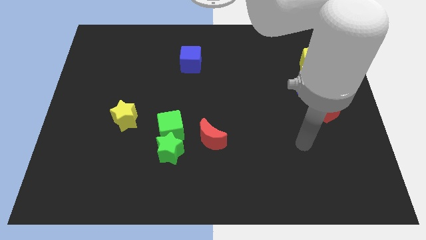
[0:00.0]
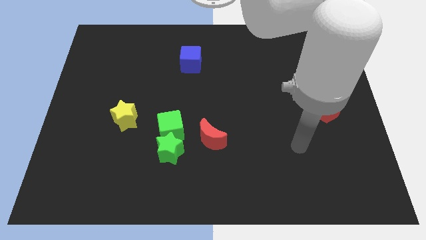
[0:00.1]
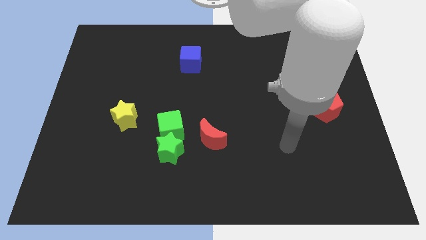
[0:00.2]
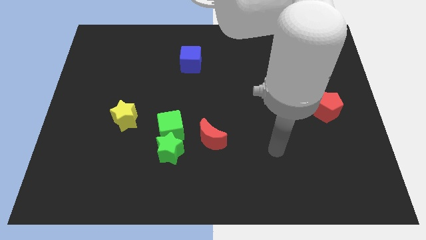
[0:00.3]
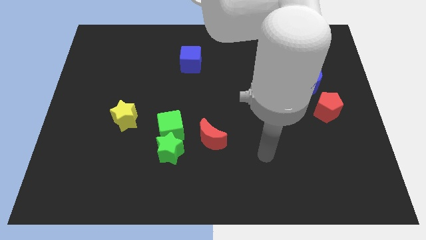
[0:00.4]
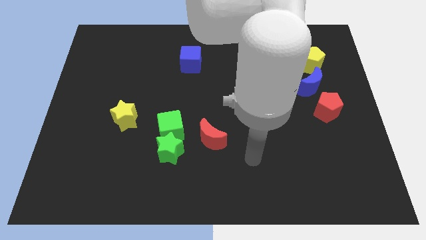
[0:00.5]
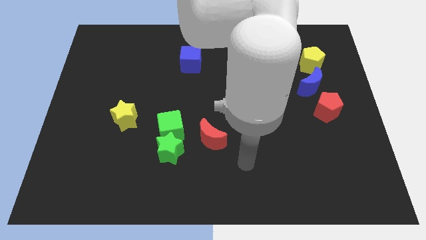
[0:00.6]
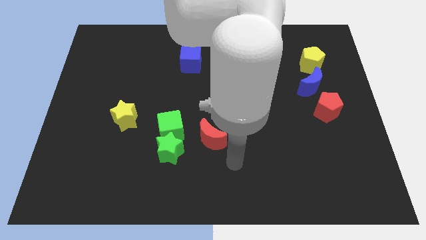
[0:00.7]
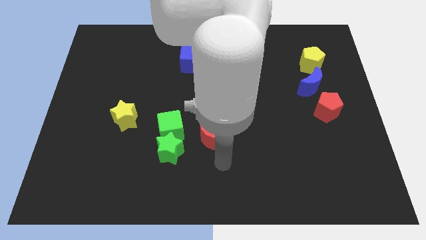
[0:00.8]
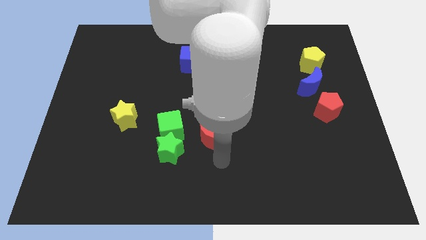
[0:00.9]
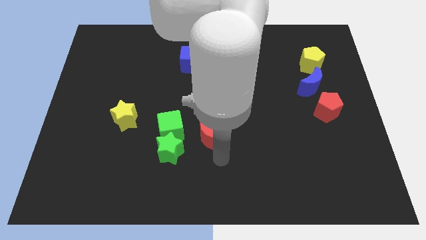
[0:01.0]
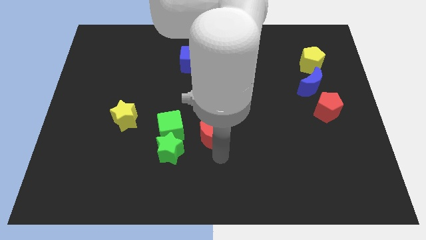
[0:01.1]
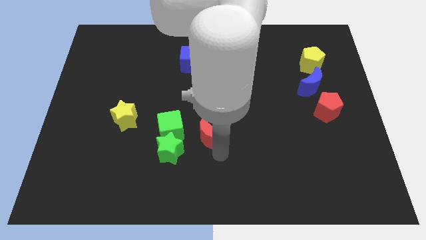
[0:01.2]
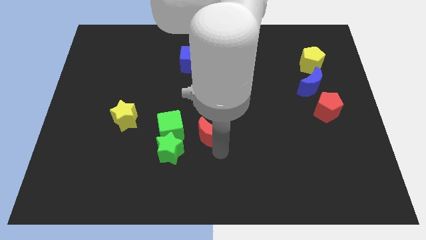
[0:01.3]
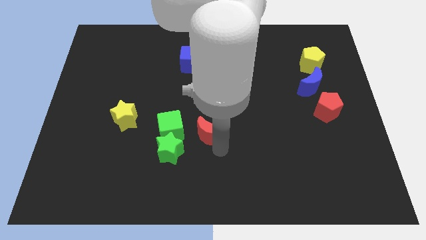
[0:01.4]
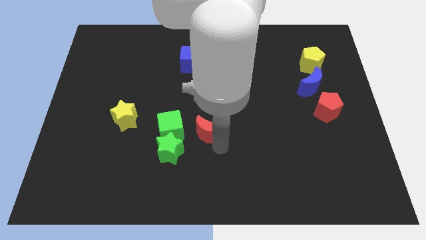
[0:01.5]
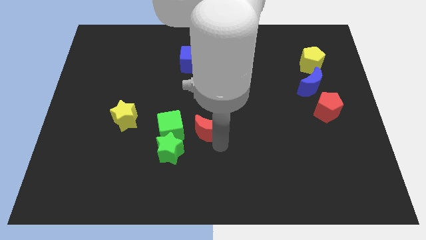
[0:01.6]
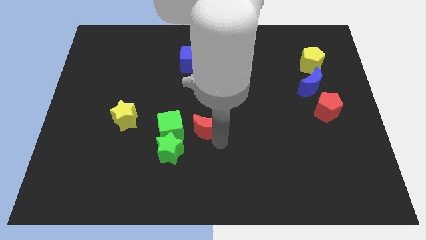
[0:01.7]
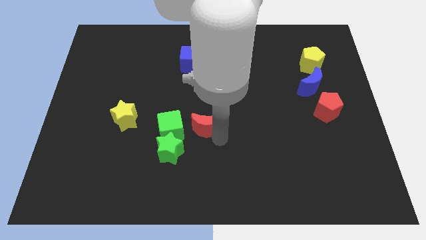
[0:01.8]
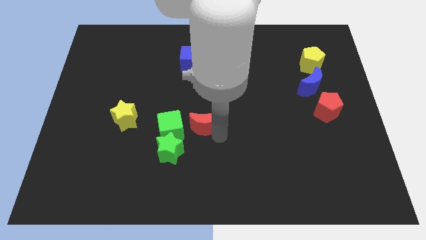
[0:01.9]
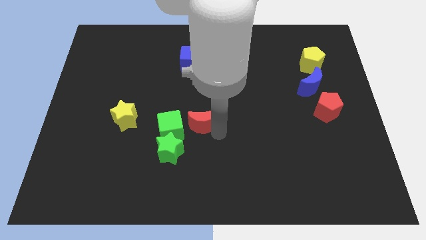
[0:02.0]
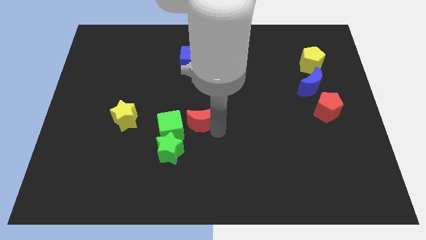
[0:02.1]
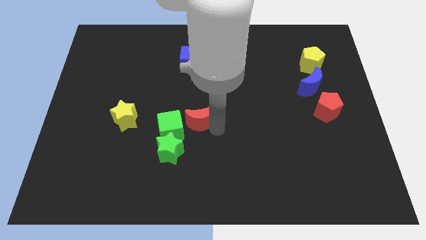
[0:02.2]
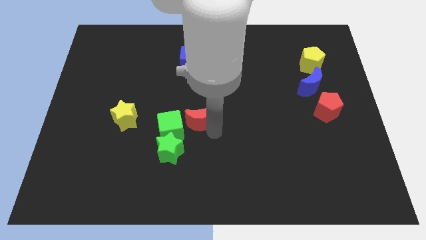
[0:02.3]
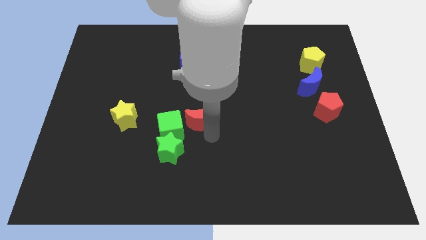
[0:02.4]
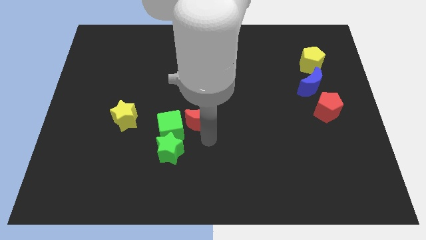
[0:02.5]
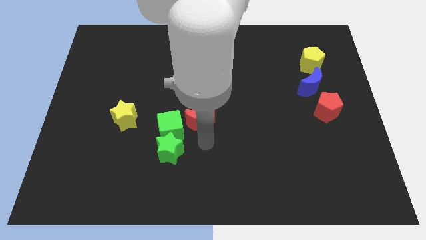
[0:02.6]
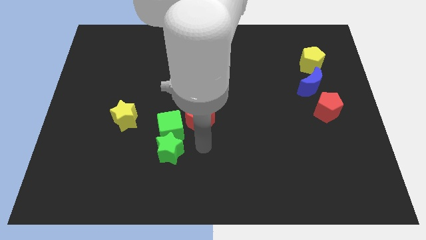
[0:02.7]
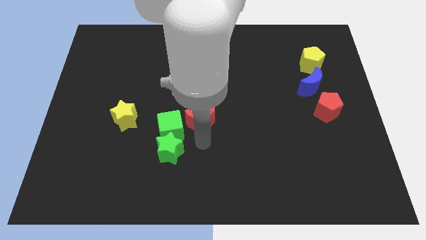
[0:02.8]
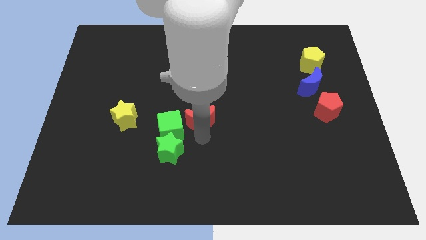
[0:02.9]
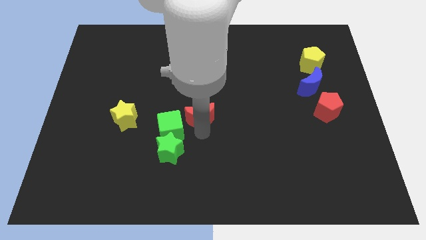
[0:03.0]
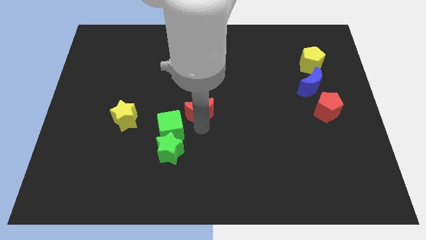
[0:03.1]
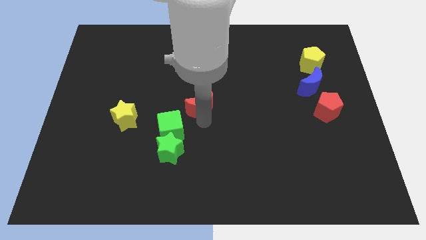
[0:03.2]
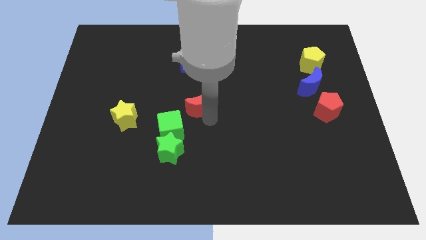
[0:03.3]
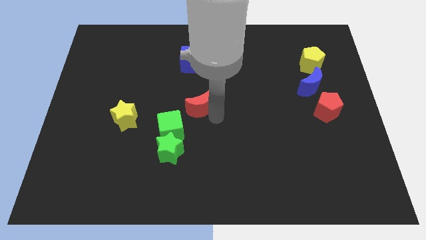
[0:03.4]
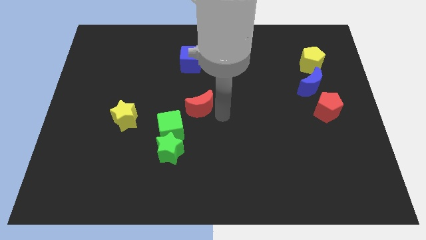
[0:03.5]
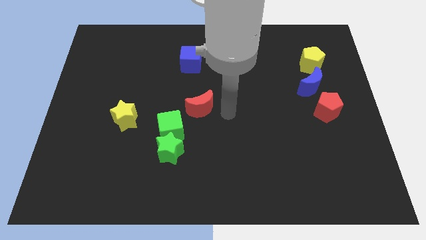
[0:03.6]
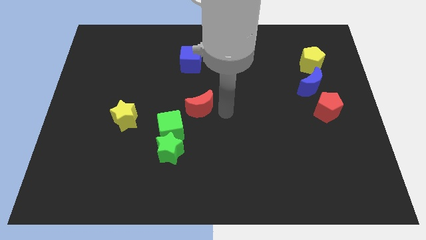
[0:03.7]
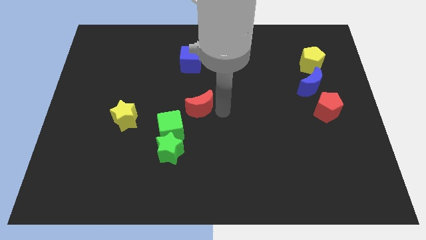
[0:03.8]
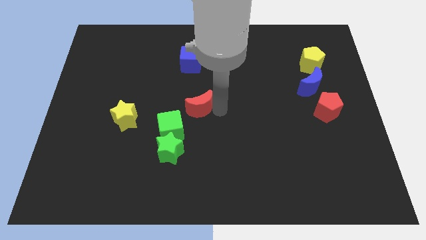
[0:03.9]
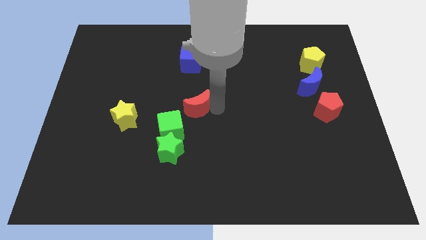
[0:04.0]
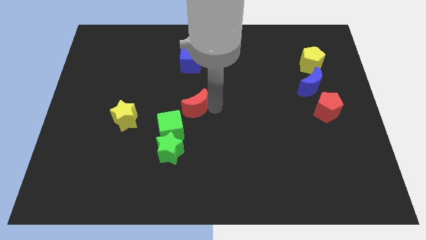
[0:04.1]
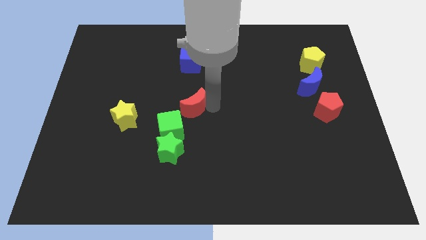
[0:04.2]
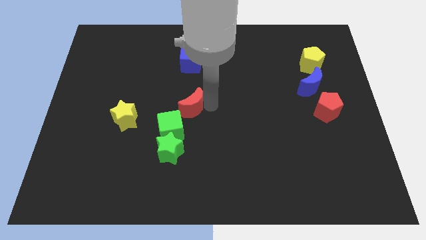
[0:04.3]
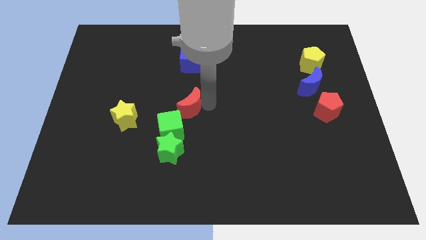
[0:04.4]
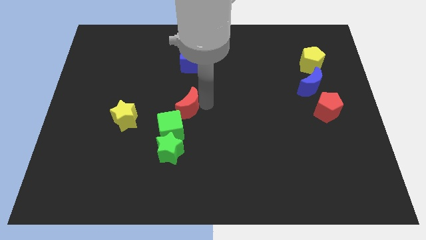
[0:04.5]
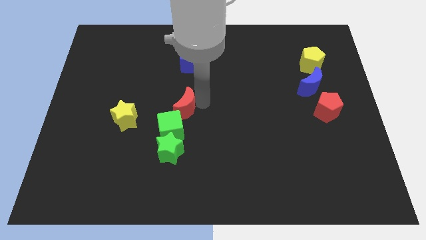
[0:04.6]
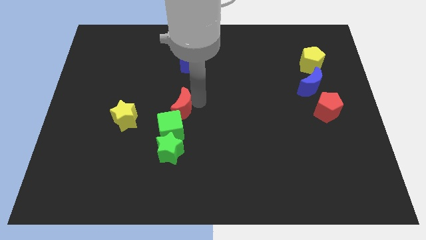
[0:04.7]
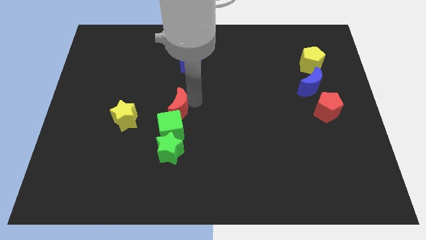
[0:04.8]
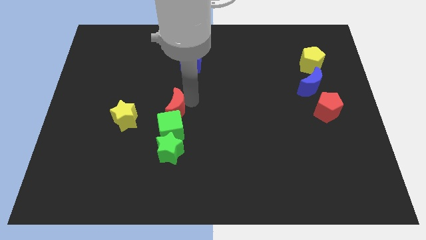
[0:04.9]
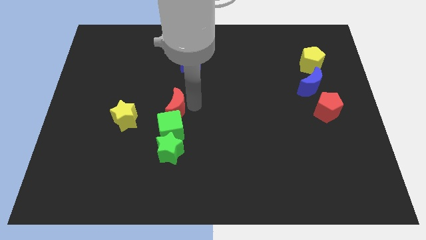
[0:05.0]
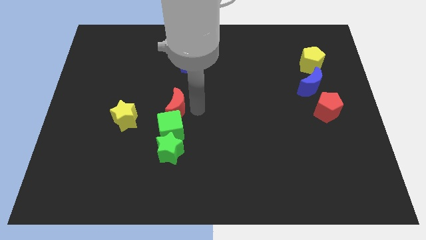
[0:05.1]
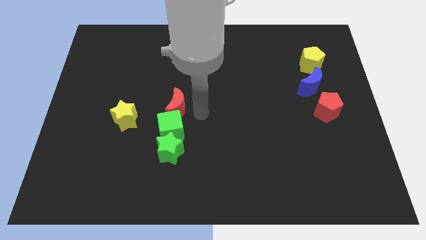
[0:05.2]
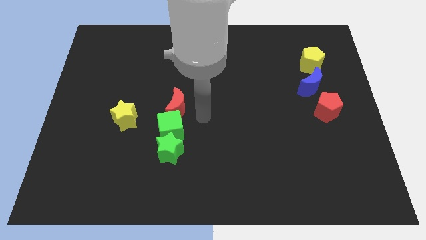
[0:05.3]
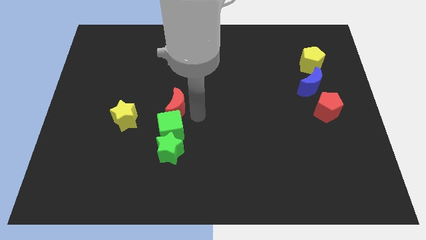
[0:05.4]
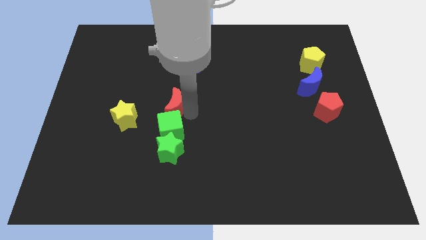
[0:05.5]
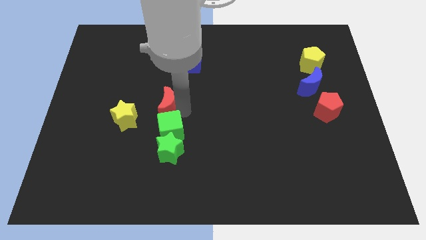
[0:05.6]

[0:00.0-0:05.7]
push the red moon diagonally up and to the right of the yellow star

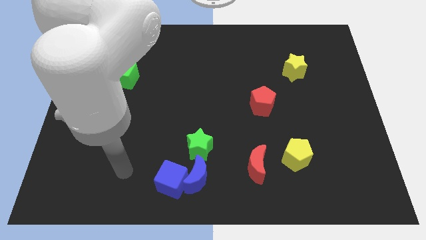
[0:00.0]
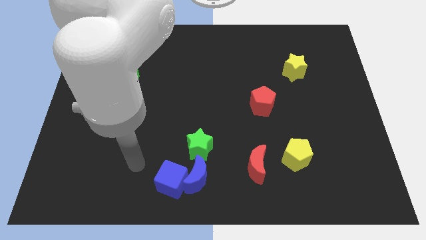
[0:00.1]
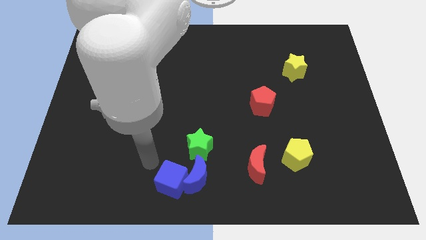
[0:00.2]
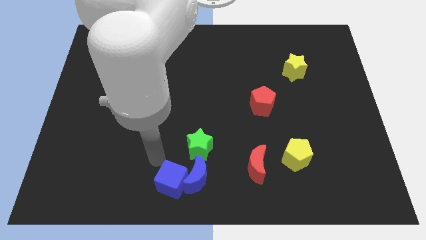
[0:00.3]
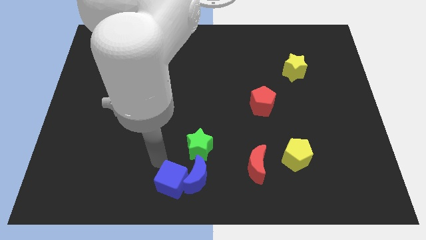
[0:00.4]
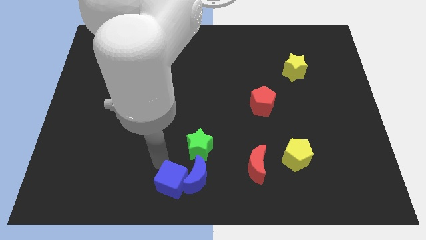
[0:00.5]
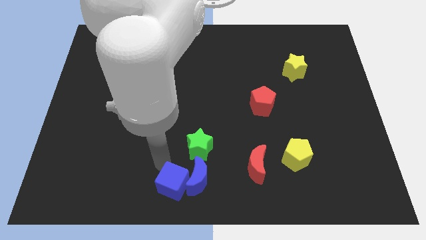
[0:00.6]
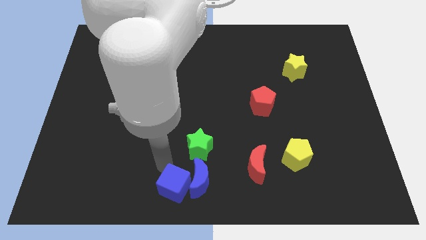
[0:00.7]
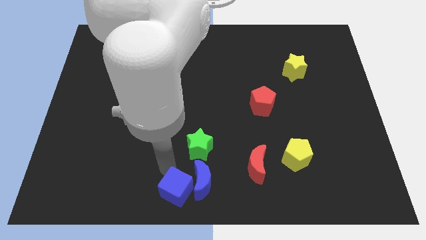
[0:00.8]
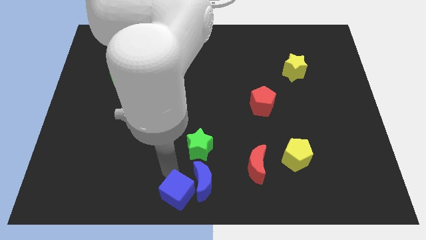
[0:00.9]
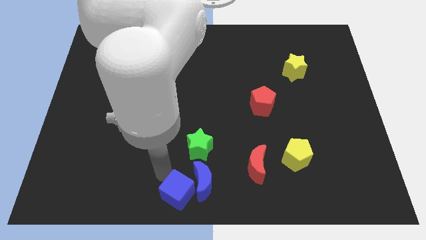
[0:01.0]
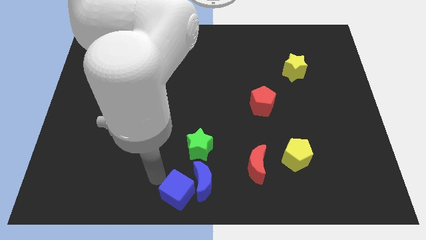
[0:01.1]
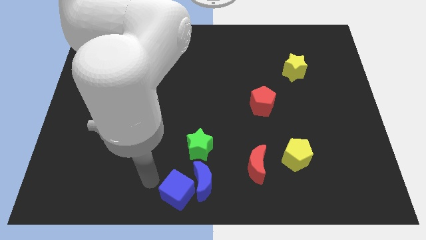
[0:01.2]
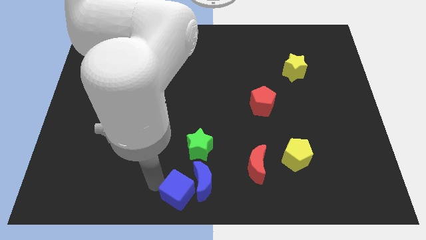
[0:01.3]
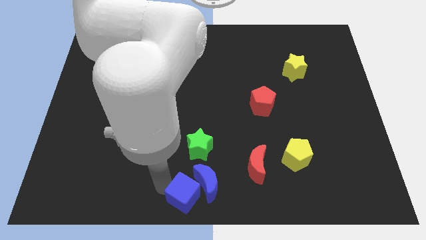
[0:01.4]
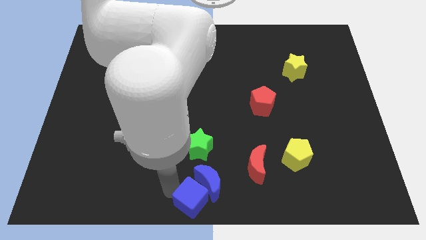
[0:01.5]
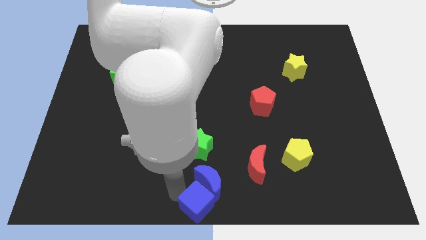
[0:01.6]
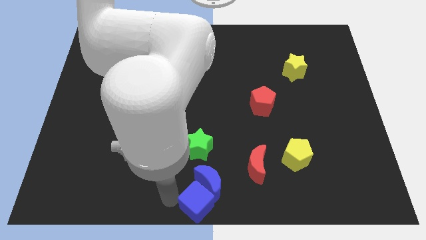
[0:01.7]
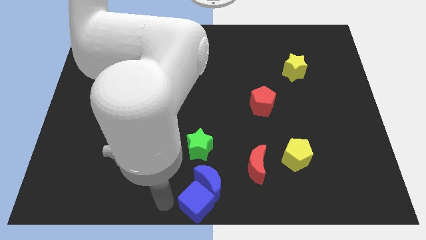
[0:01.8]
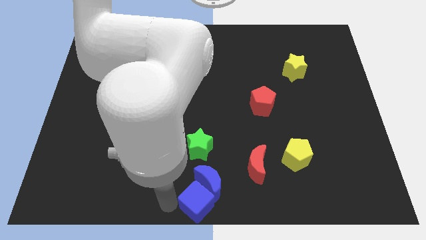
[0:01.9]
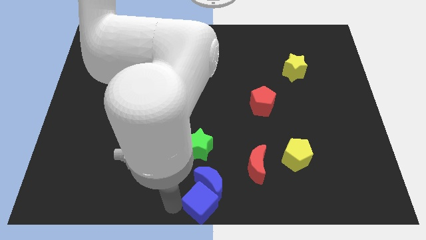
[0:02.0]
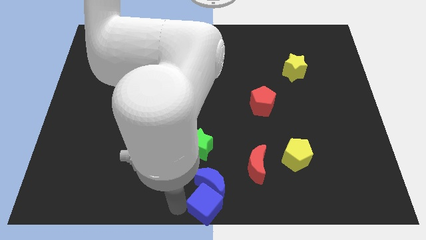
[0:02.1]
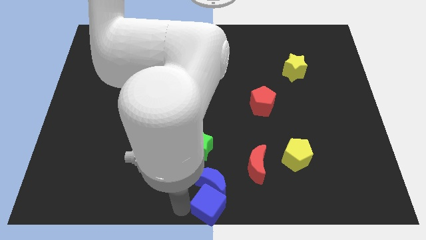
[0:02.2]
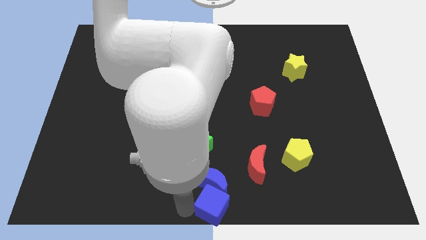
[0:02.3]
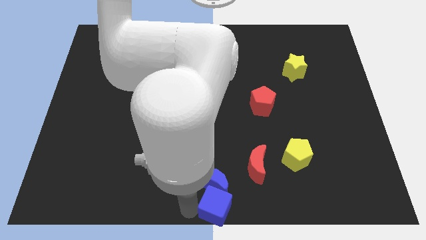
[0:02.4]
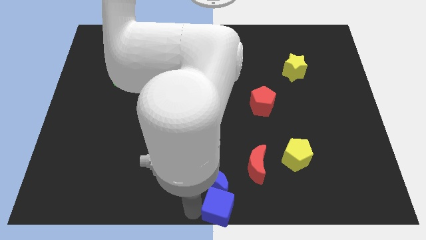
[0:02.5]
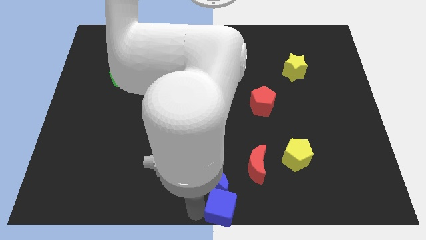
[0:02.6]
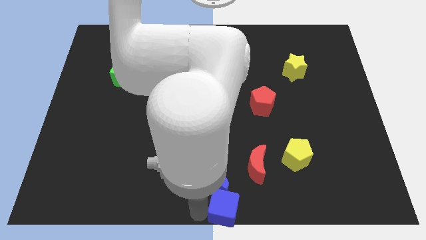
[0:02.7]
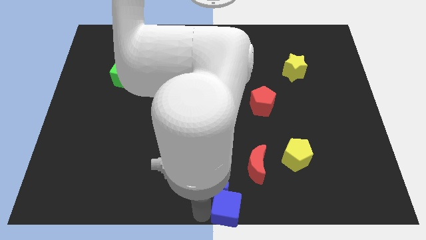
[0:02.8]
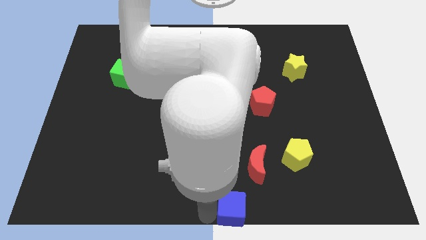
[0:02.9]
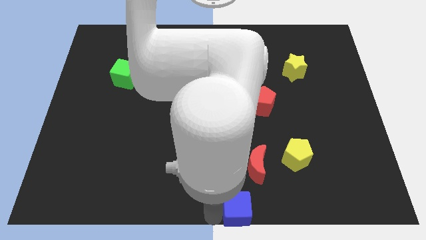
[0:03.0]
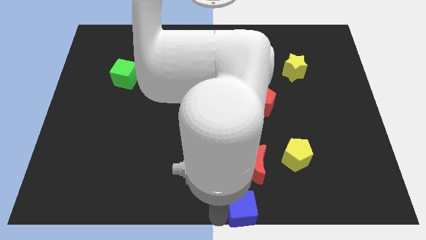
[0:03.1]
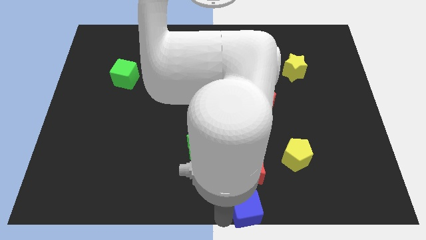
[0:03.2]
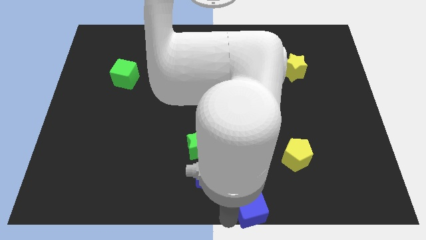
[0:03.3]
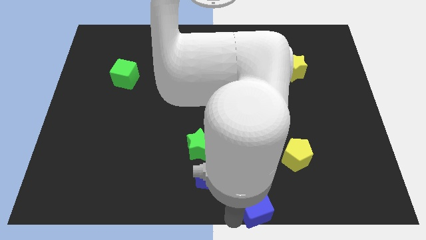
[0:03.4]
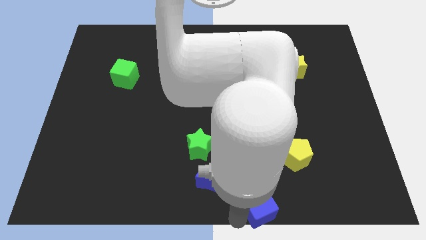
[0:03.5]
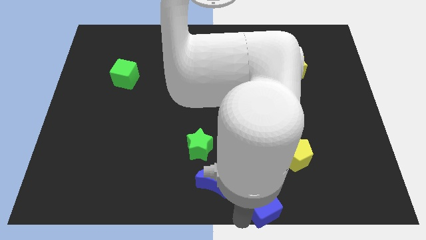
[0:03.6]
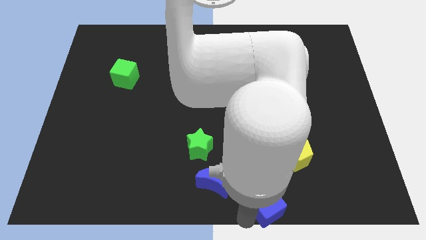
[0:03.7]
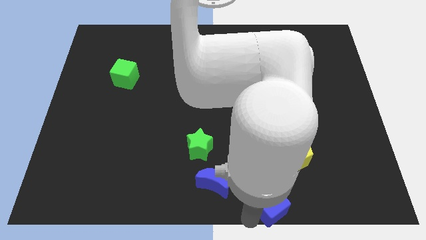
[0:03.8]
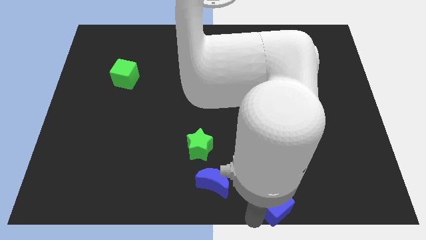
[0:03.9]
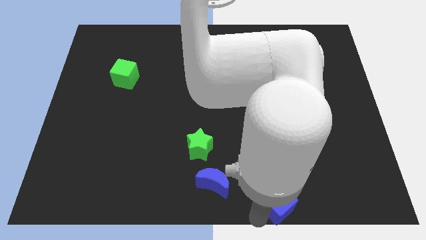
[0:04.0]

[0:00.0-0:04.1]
push the blue cube diagonally down and to the left of the yellow pentagon
